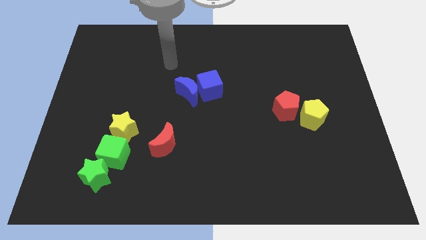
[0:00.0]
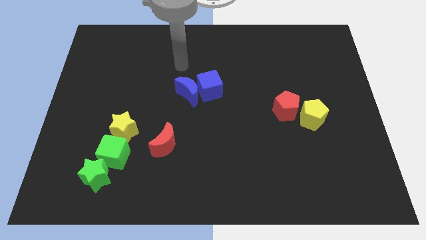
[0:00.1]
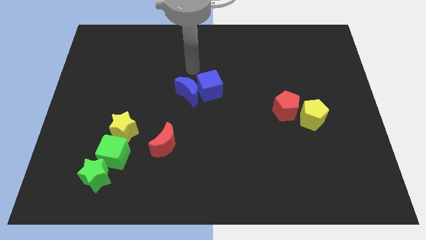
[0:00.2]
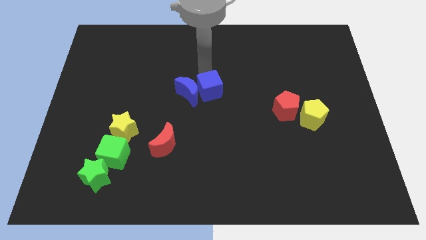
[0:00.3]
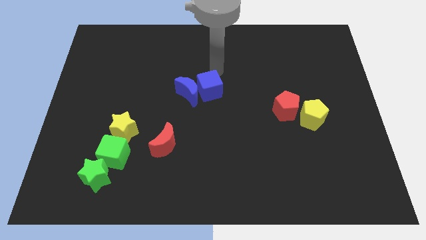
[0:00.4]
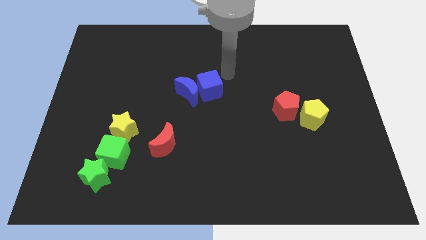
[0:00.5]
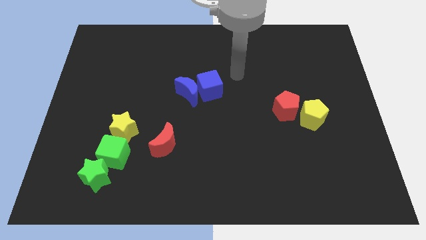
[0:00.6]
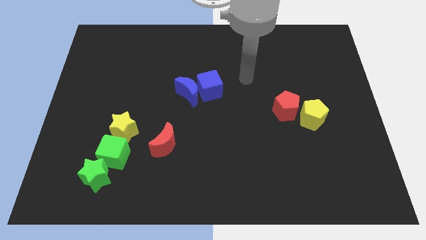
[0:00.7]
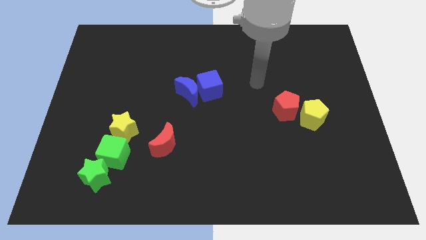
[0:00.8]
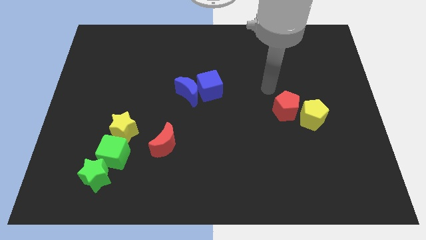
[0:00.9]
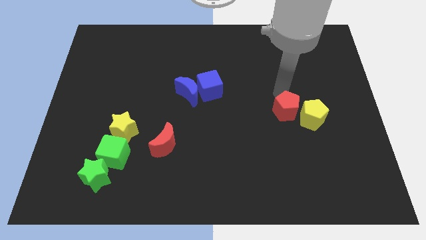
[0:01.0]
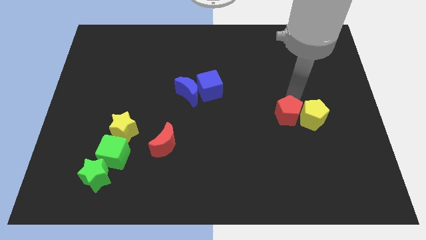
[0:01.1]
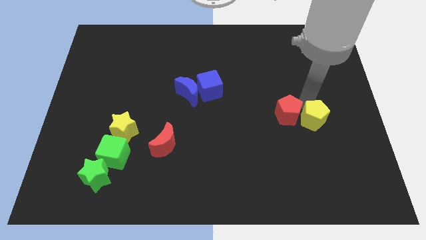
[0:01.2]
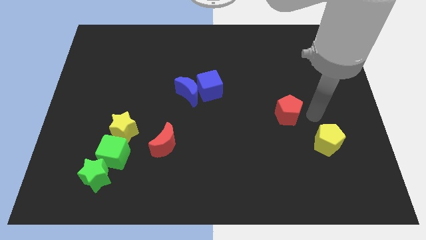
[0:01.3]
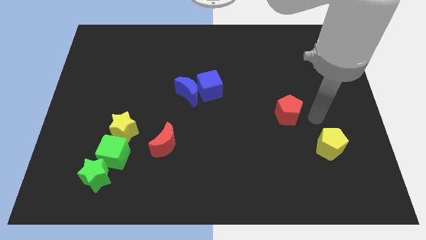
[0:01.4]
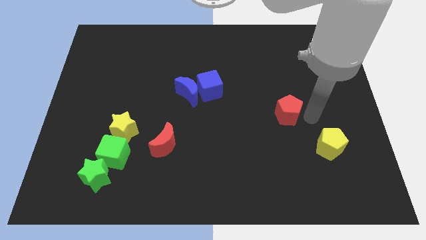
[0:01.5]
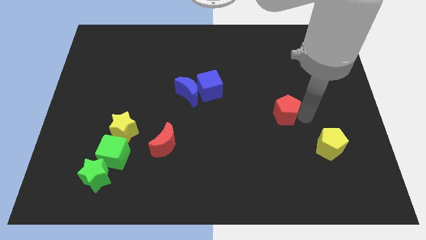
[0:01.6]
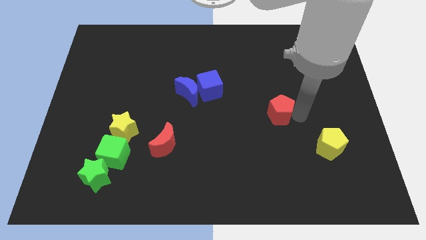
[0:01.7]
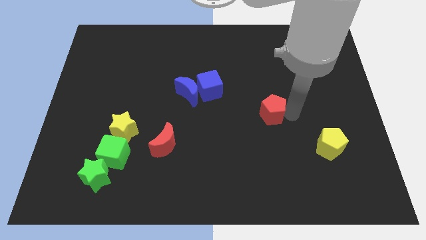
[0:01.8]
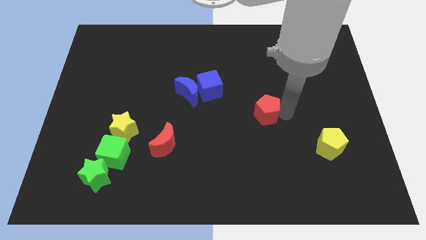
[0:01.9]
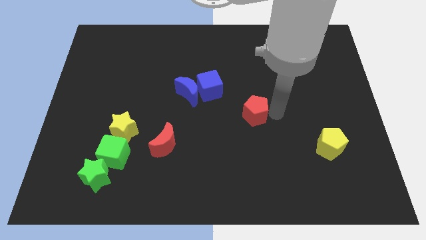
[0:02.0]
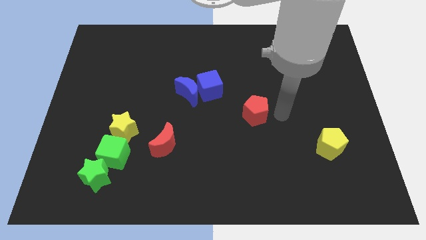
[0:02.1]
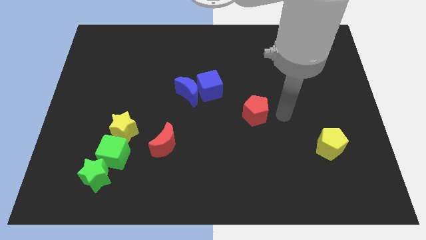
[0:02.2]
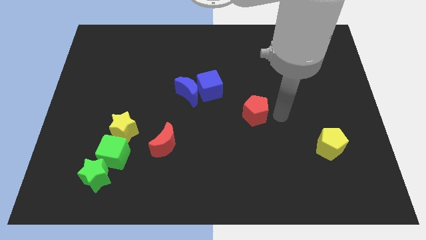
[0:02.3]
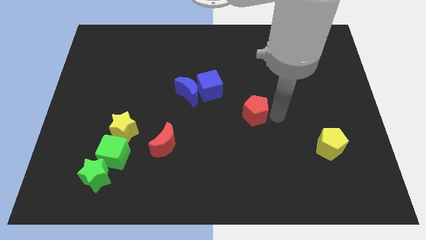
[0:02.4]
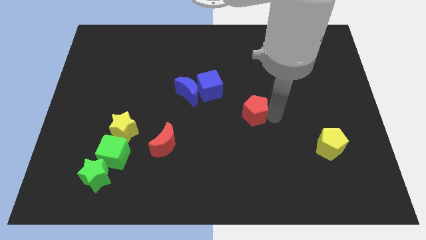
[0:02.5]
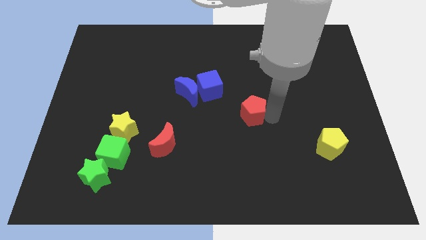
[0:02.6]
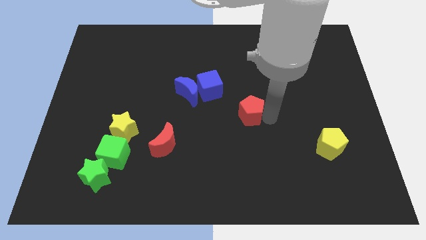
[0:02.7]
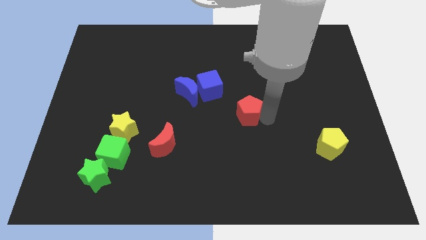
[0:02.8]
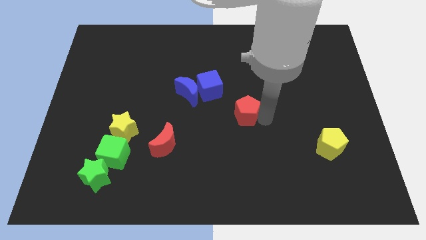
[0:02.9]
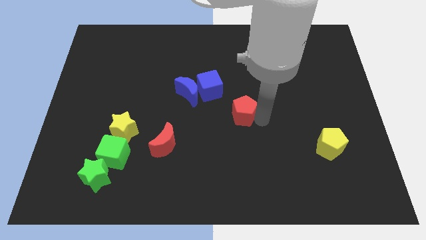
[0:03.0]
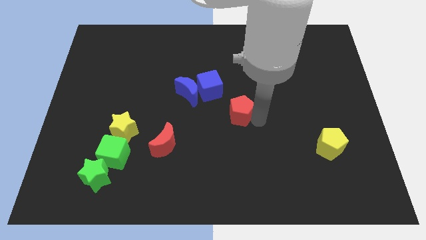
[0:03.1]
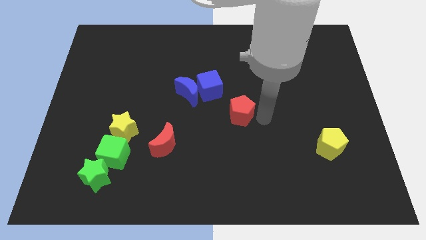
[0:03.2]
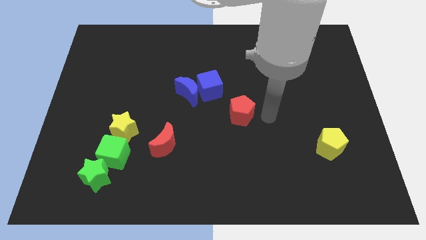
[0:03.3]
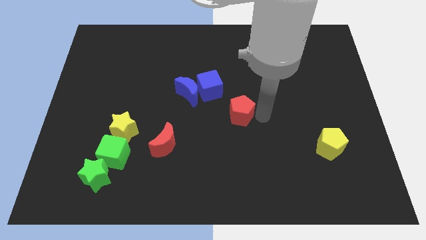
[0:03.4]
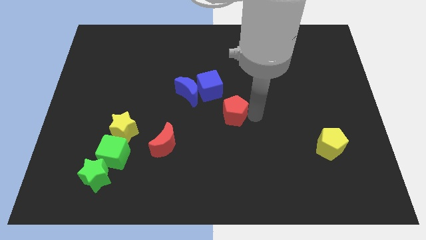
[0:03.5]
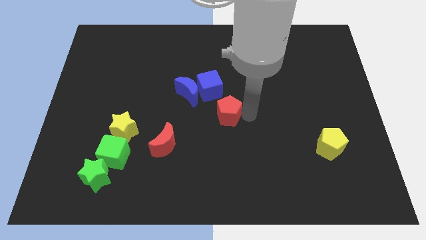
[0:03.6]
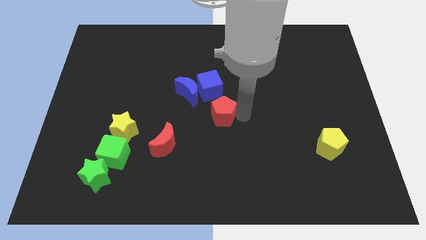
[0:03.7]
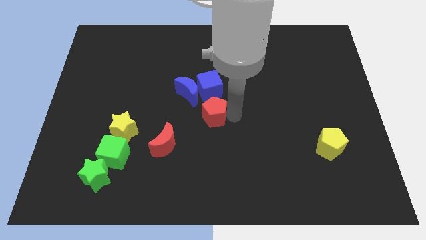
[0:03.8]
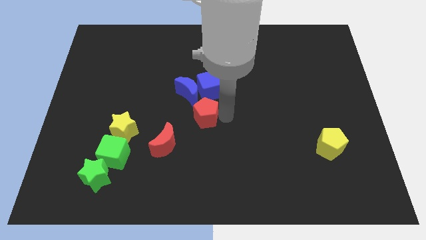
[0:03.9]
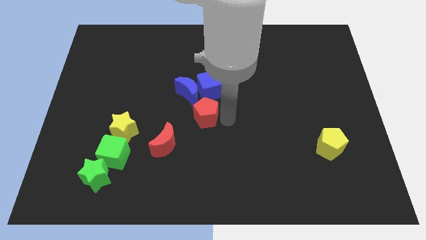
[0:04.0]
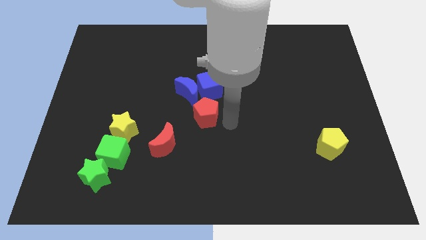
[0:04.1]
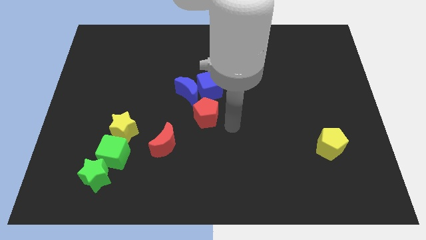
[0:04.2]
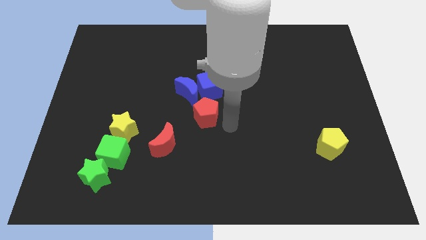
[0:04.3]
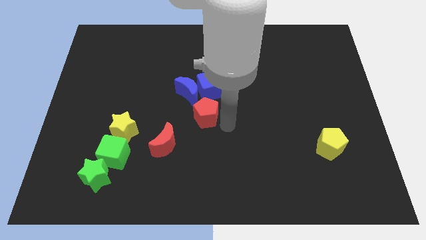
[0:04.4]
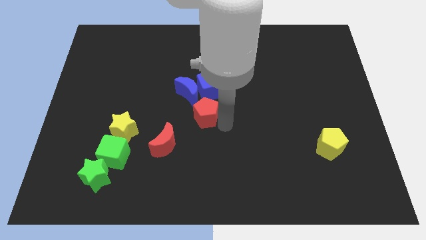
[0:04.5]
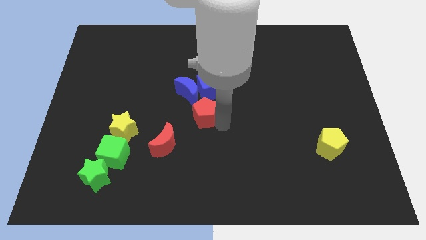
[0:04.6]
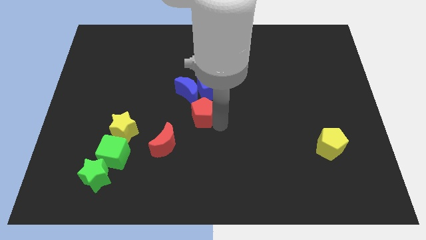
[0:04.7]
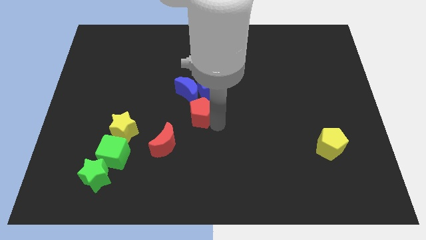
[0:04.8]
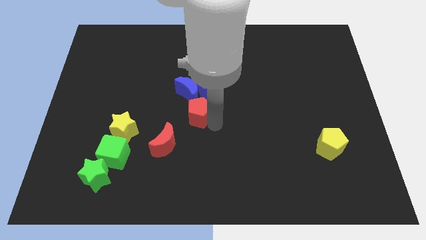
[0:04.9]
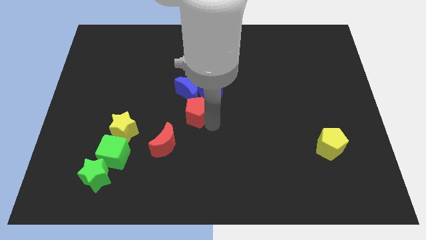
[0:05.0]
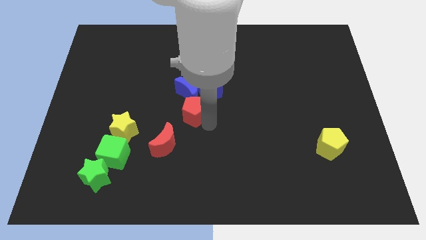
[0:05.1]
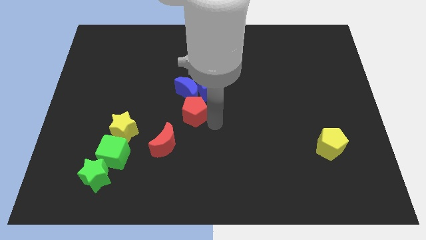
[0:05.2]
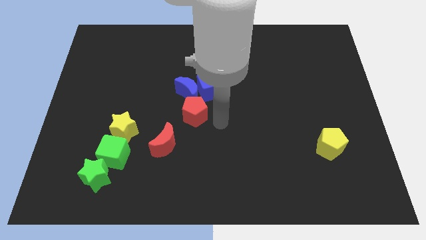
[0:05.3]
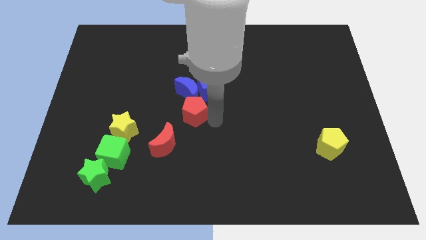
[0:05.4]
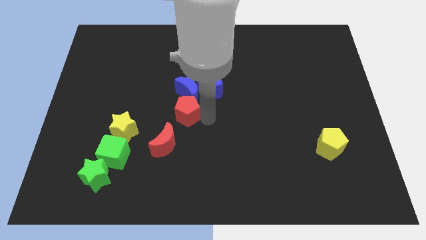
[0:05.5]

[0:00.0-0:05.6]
move the red pentagon to the top of the red moon

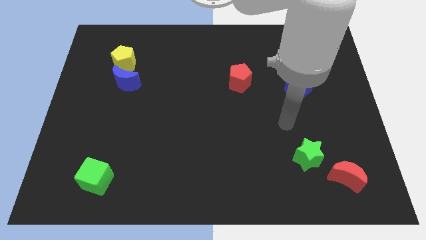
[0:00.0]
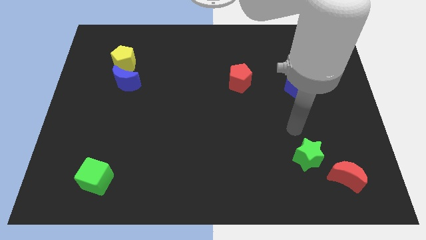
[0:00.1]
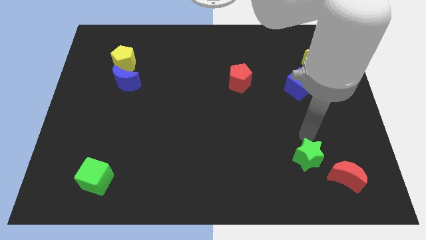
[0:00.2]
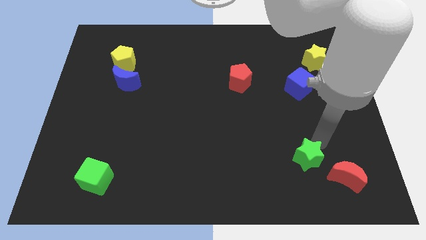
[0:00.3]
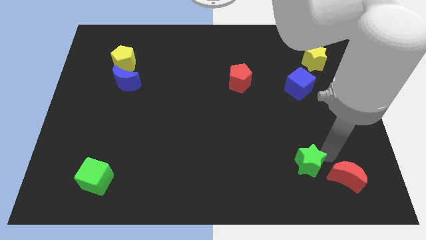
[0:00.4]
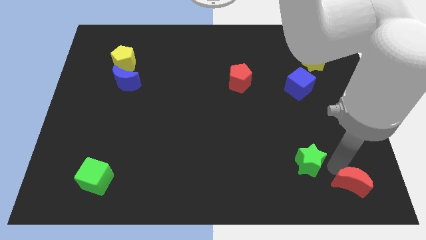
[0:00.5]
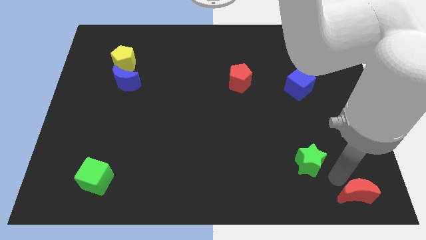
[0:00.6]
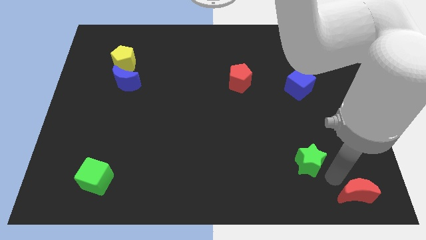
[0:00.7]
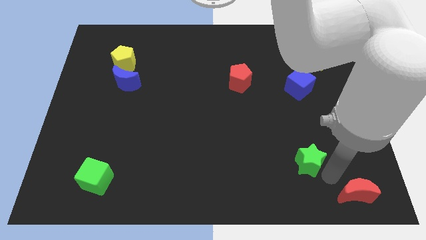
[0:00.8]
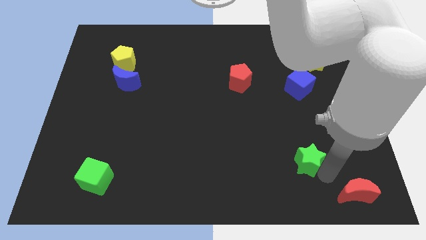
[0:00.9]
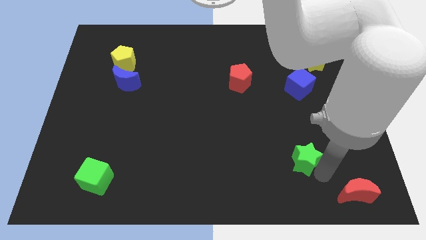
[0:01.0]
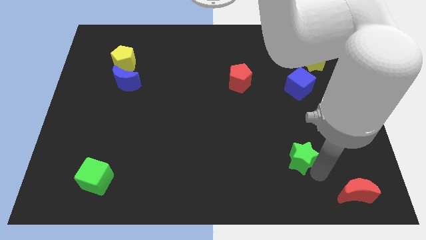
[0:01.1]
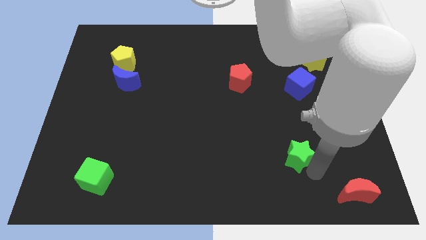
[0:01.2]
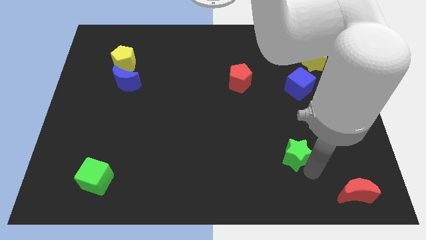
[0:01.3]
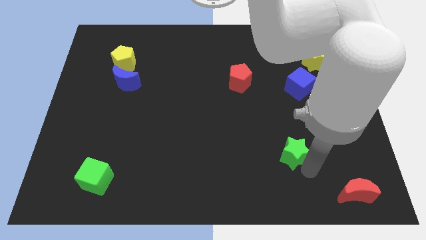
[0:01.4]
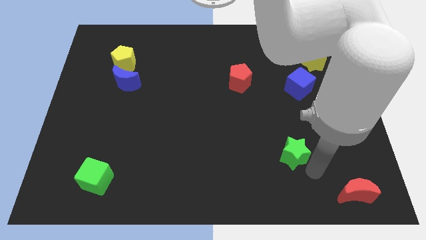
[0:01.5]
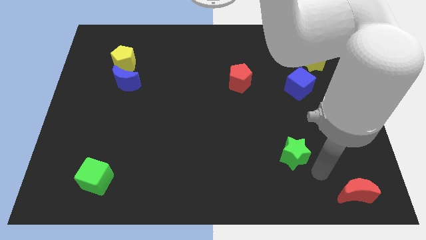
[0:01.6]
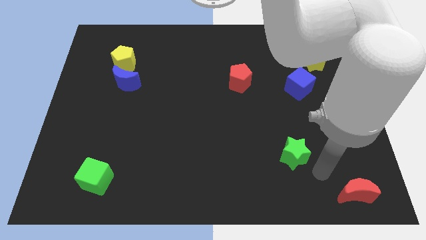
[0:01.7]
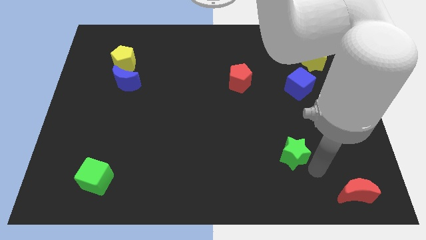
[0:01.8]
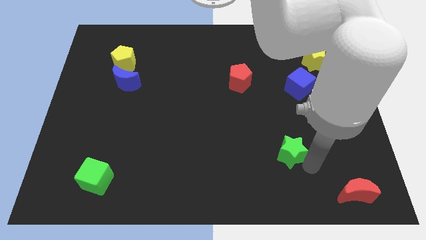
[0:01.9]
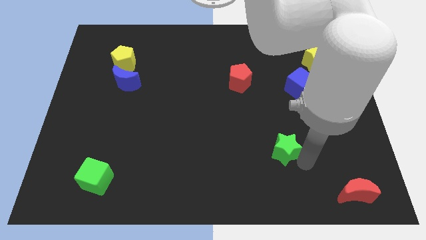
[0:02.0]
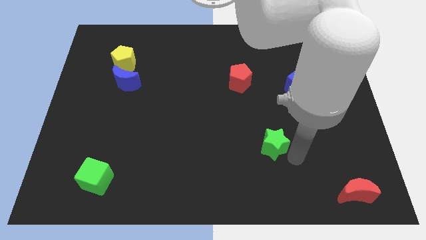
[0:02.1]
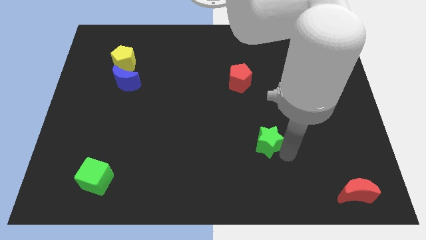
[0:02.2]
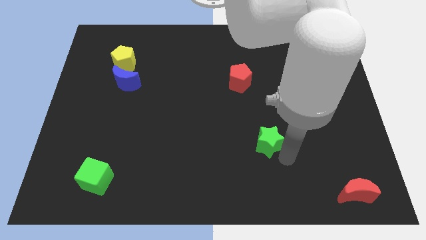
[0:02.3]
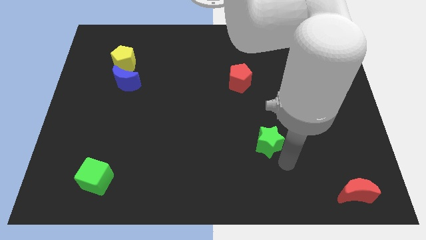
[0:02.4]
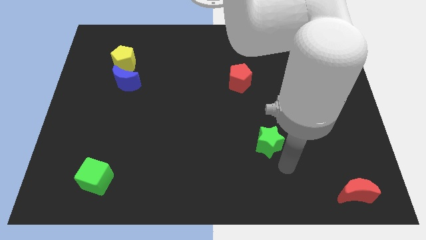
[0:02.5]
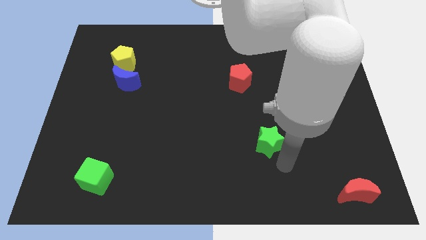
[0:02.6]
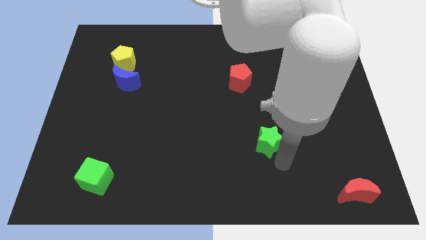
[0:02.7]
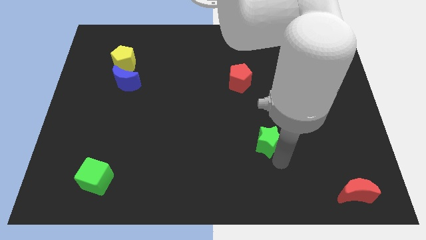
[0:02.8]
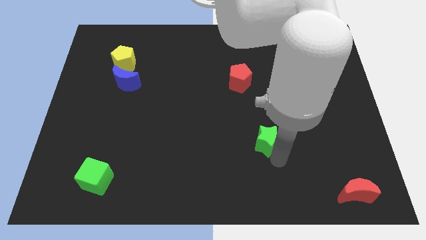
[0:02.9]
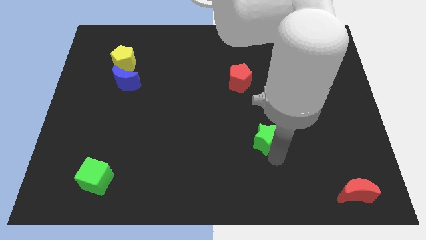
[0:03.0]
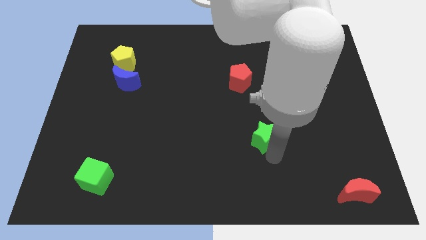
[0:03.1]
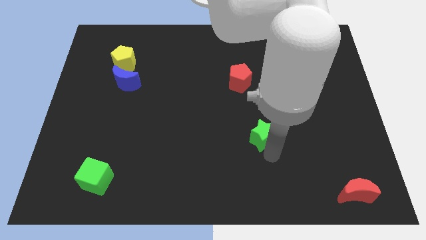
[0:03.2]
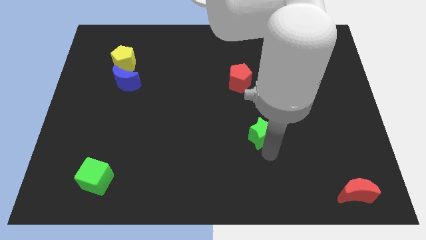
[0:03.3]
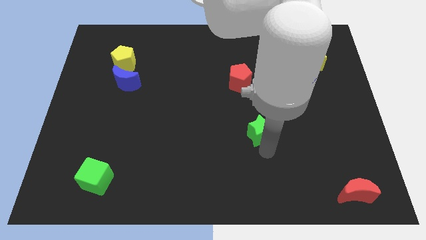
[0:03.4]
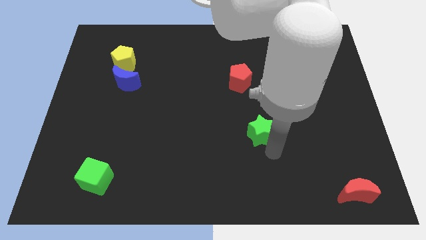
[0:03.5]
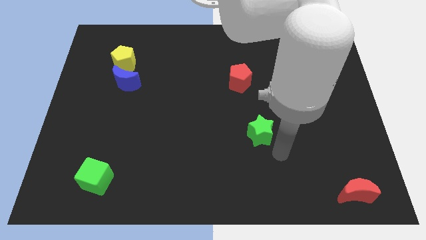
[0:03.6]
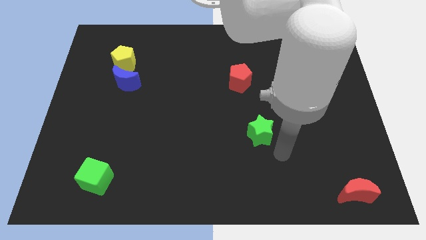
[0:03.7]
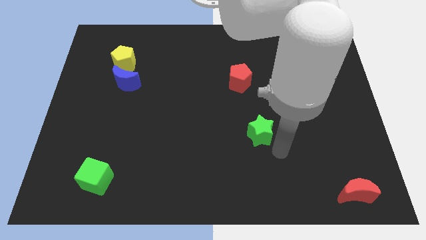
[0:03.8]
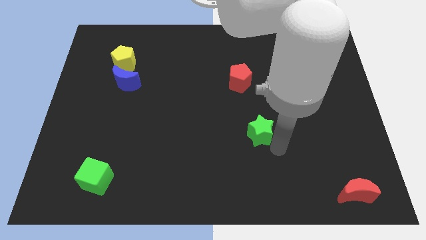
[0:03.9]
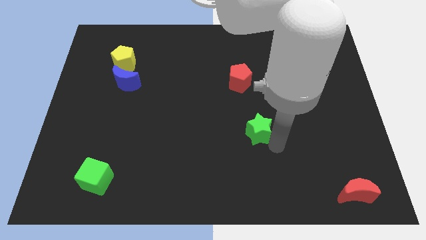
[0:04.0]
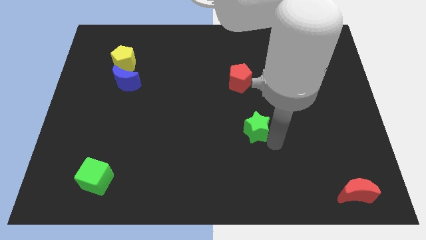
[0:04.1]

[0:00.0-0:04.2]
slide the green star to the bottom side of the red pentagon
